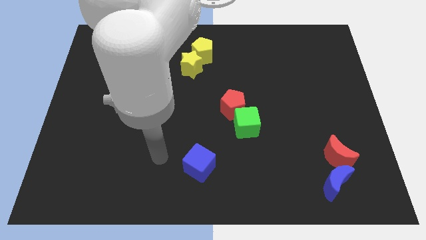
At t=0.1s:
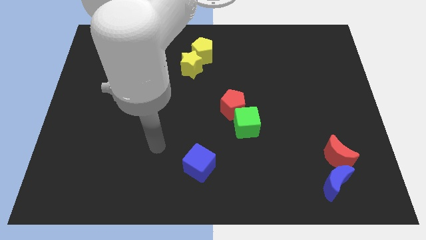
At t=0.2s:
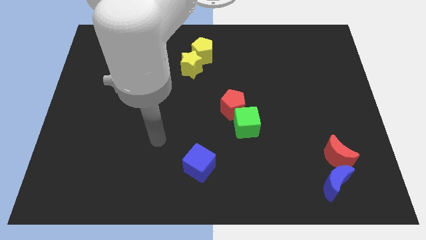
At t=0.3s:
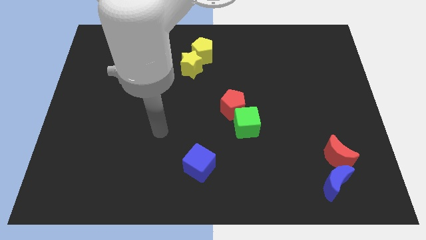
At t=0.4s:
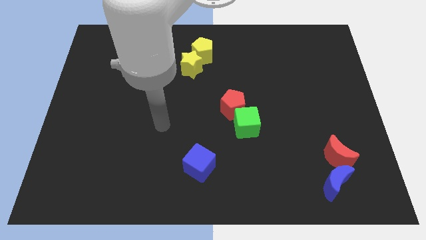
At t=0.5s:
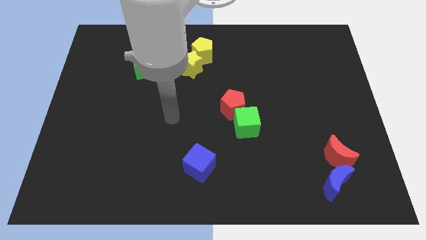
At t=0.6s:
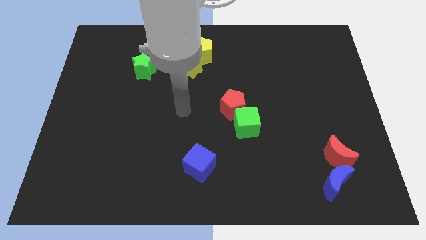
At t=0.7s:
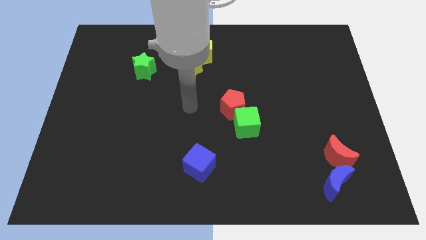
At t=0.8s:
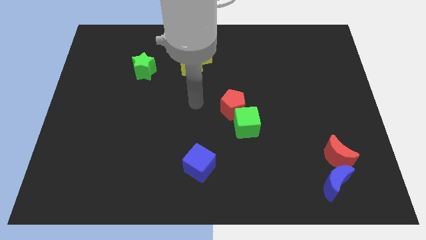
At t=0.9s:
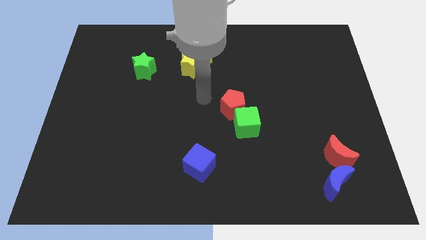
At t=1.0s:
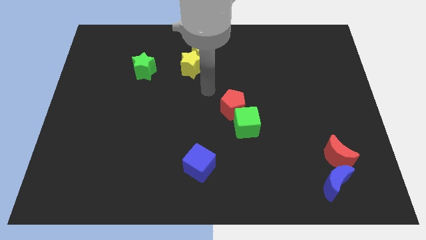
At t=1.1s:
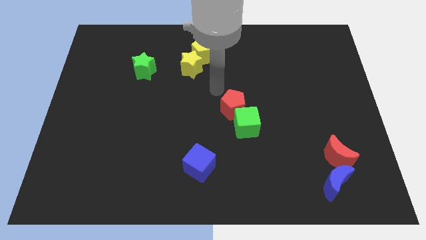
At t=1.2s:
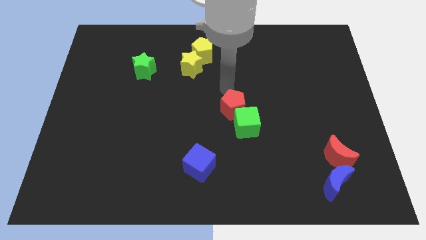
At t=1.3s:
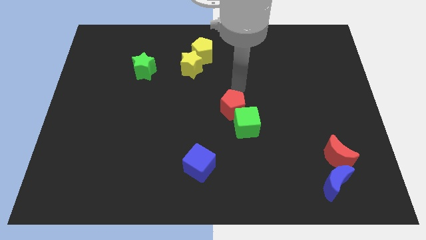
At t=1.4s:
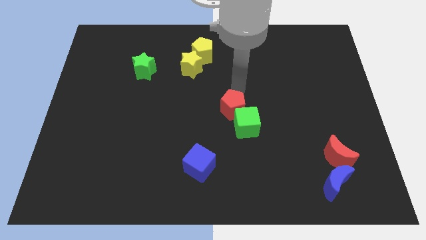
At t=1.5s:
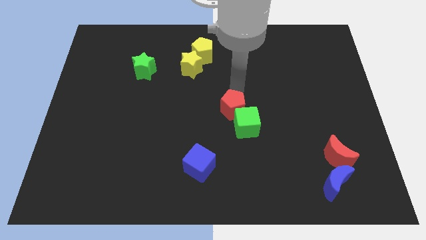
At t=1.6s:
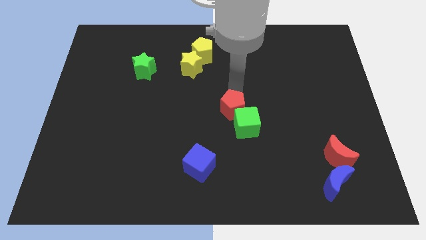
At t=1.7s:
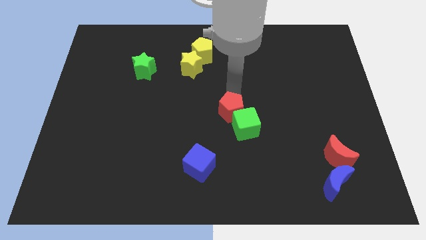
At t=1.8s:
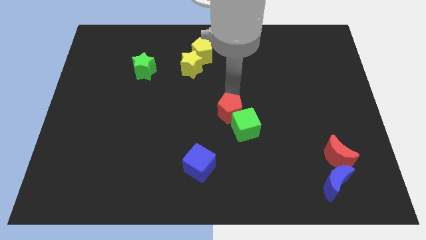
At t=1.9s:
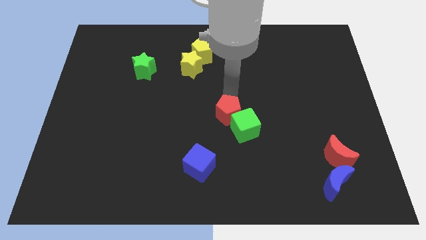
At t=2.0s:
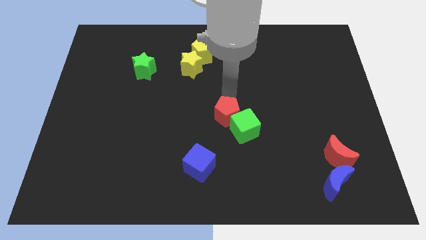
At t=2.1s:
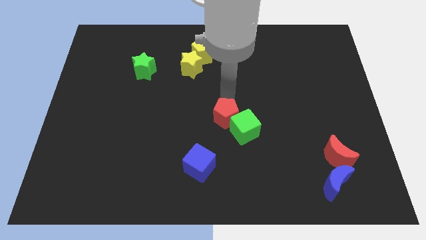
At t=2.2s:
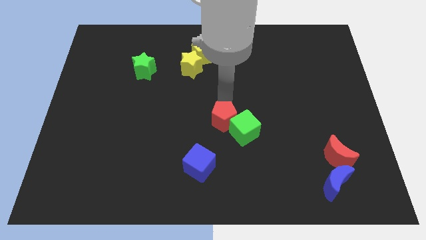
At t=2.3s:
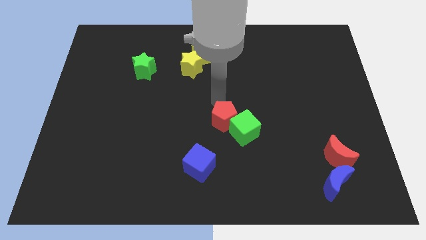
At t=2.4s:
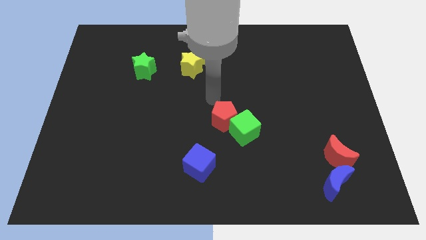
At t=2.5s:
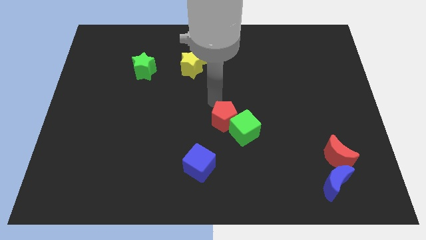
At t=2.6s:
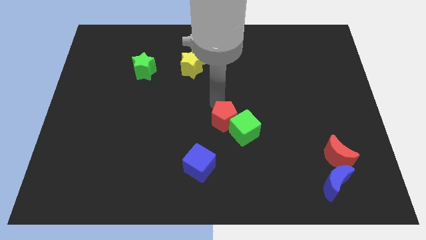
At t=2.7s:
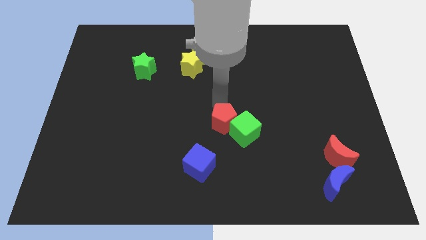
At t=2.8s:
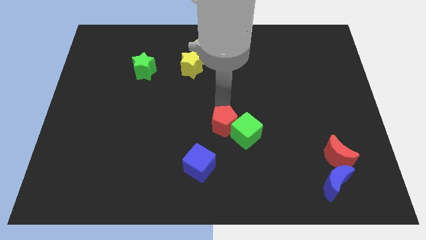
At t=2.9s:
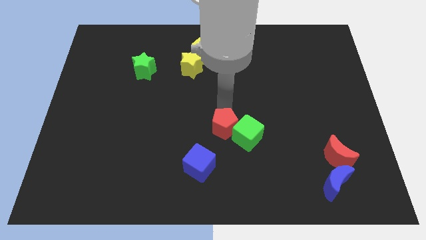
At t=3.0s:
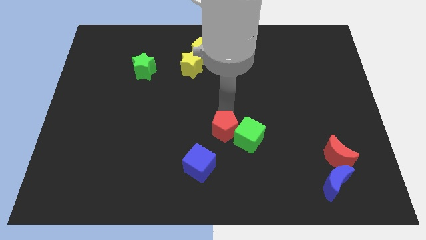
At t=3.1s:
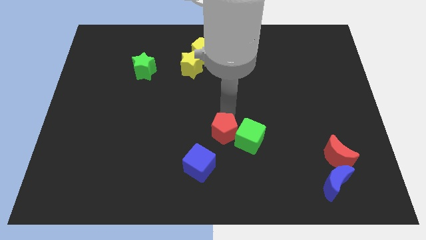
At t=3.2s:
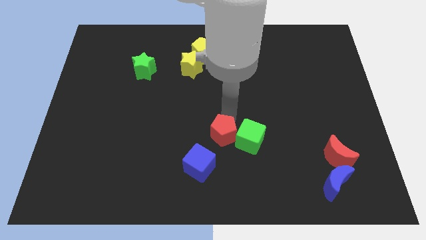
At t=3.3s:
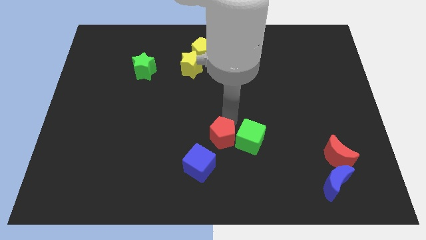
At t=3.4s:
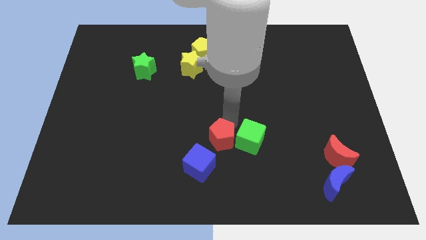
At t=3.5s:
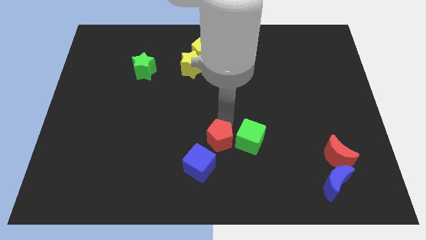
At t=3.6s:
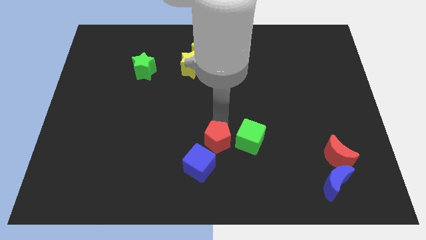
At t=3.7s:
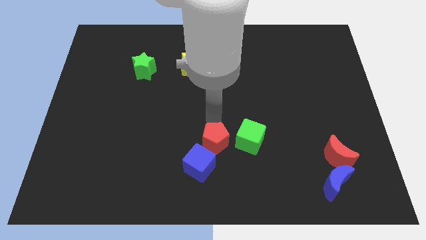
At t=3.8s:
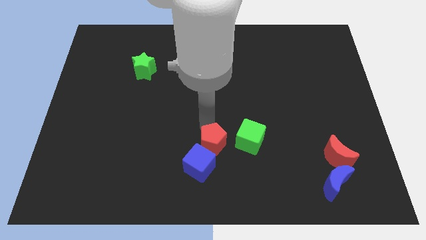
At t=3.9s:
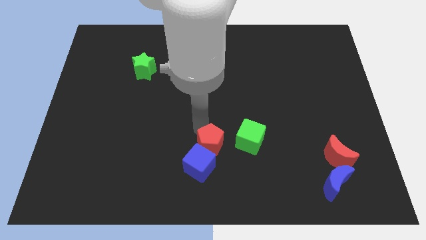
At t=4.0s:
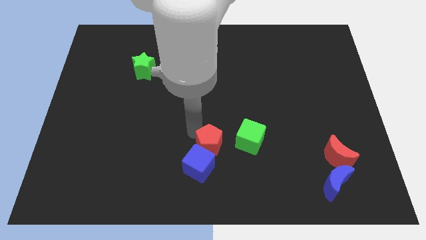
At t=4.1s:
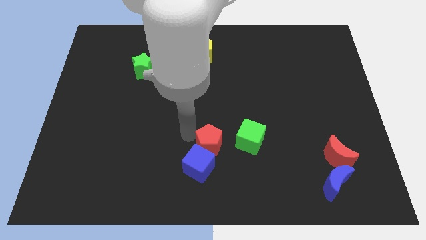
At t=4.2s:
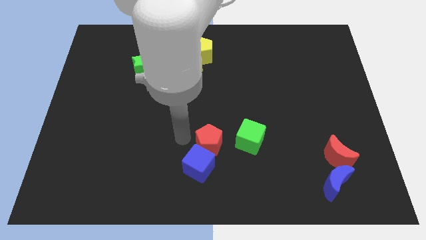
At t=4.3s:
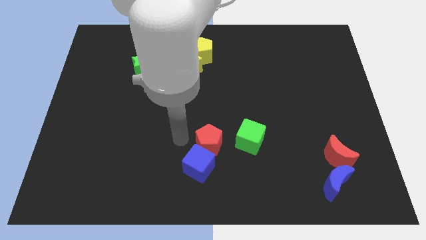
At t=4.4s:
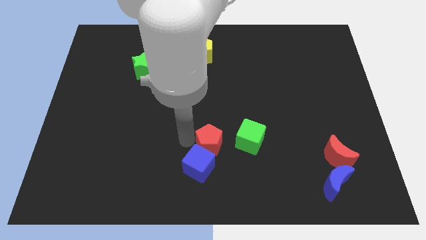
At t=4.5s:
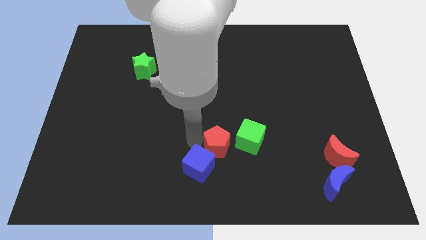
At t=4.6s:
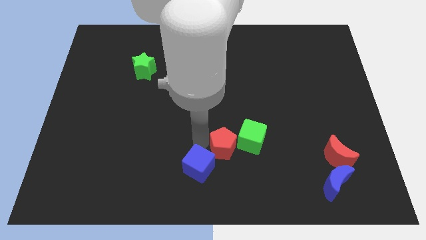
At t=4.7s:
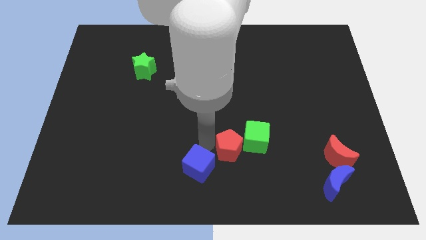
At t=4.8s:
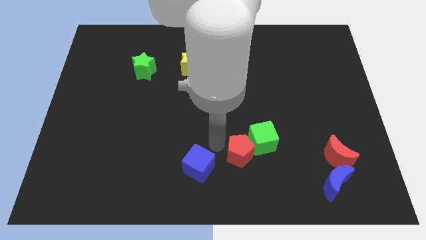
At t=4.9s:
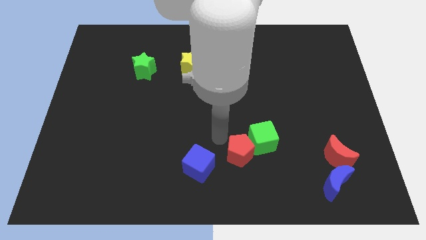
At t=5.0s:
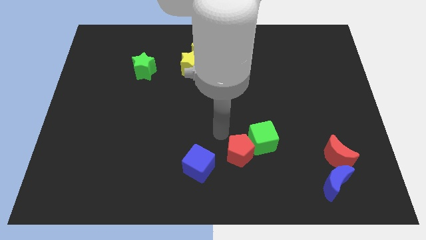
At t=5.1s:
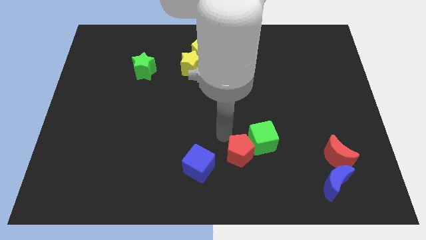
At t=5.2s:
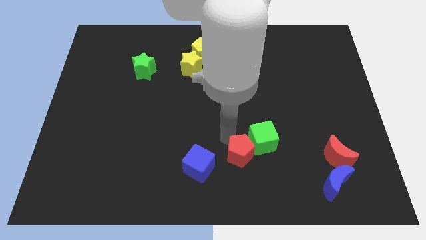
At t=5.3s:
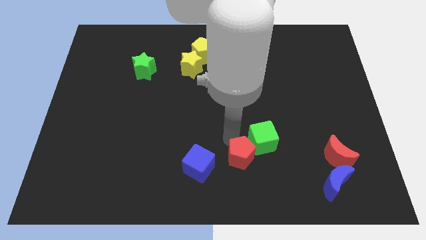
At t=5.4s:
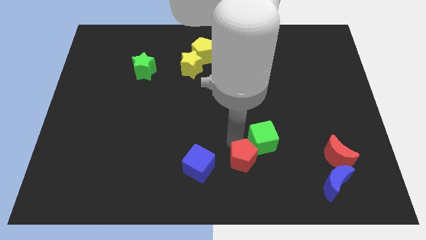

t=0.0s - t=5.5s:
put the red pentagon below the green cube

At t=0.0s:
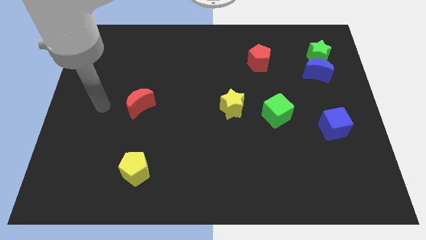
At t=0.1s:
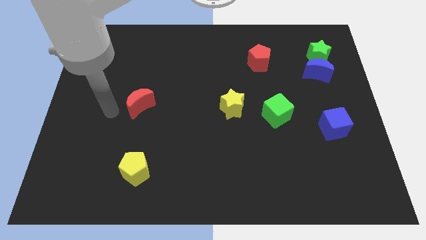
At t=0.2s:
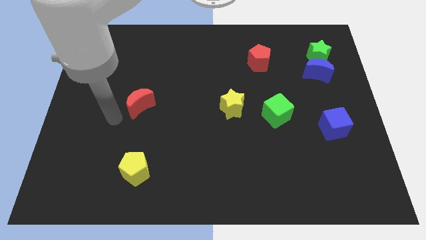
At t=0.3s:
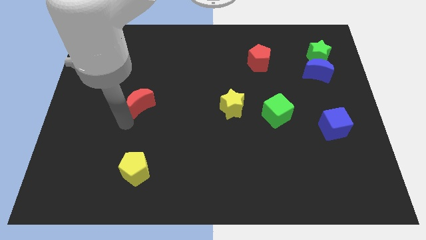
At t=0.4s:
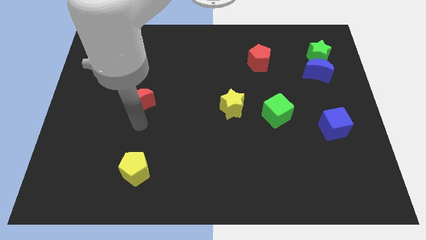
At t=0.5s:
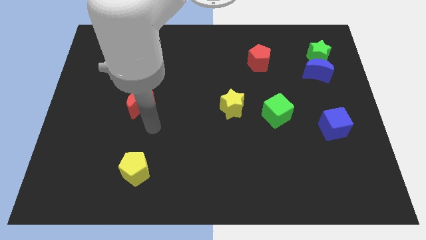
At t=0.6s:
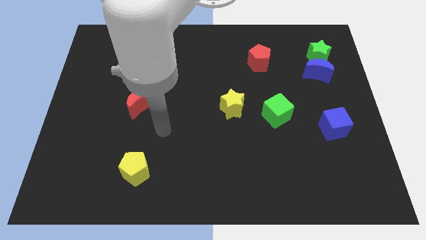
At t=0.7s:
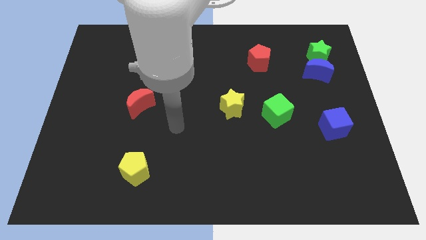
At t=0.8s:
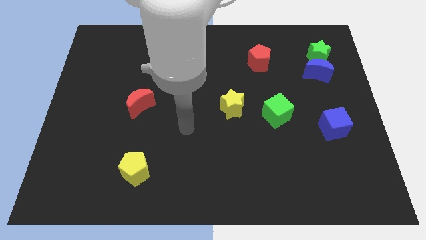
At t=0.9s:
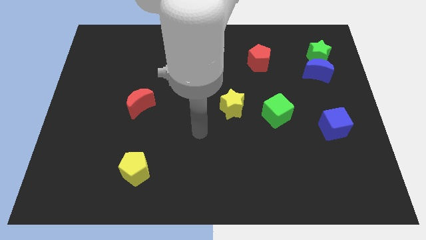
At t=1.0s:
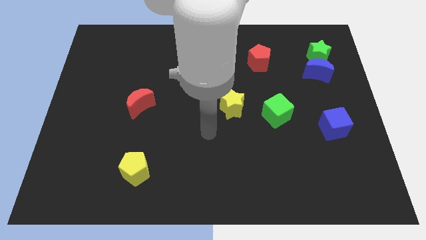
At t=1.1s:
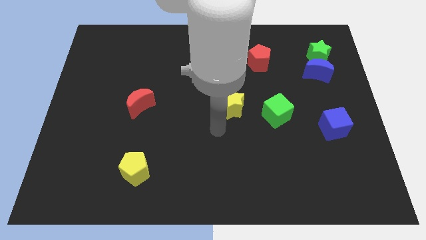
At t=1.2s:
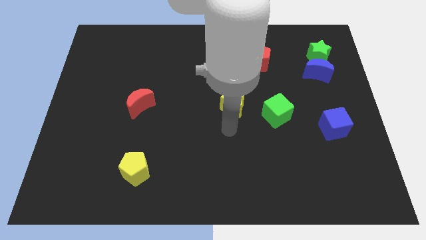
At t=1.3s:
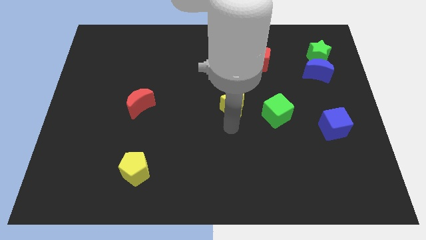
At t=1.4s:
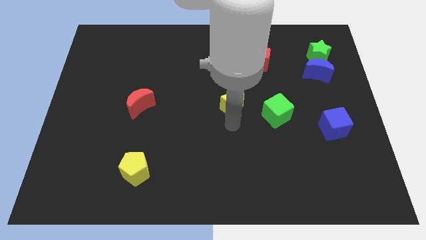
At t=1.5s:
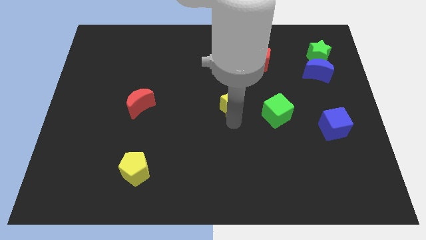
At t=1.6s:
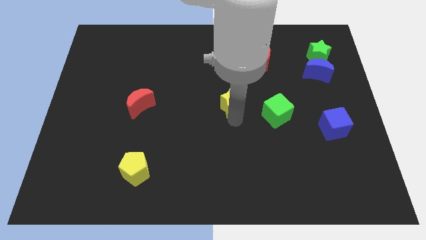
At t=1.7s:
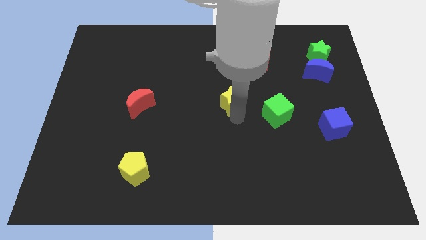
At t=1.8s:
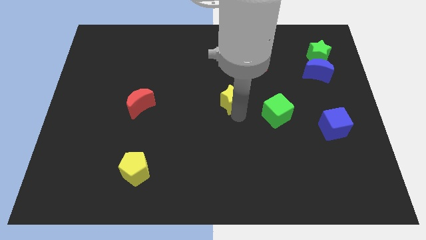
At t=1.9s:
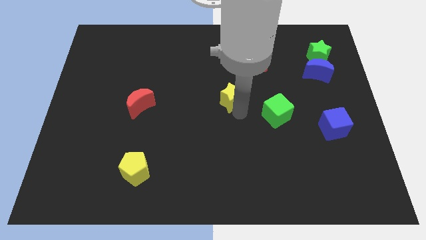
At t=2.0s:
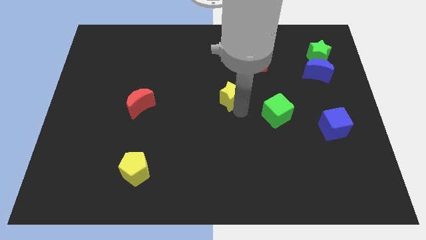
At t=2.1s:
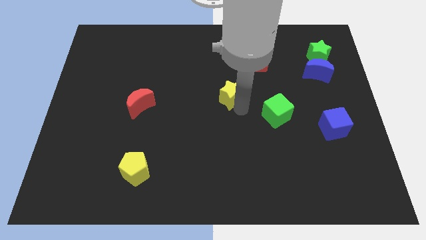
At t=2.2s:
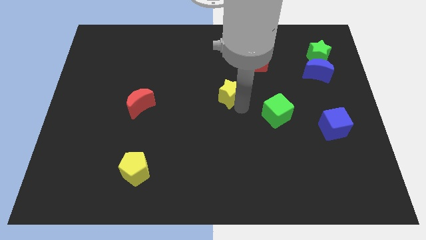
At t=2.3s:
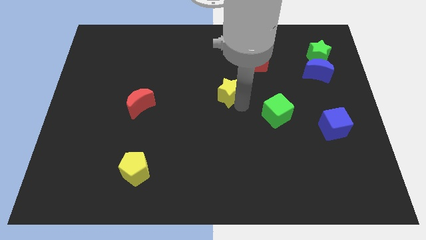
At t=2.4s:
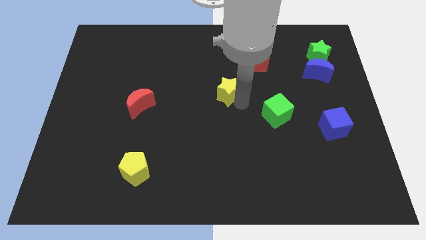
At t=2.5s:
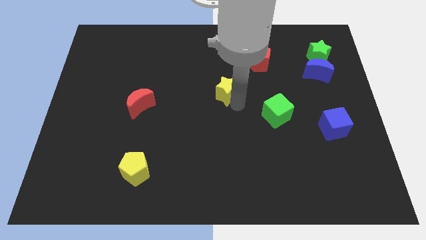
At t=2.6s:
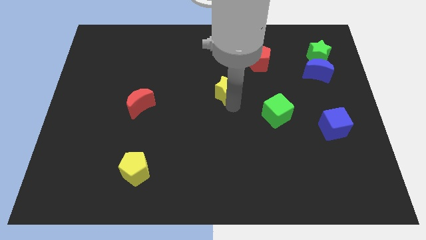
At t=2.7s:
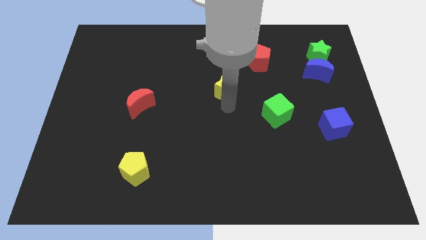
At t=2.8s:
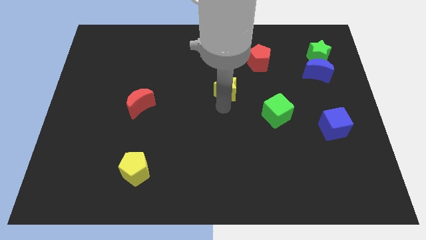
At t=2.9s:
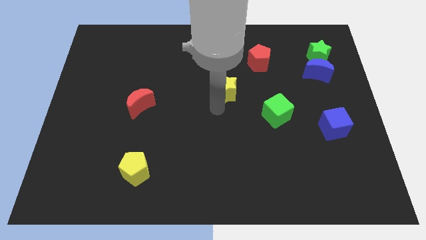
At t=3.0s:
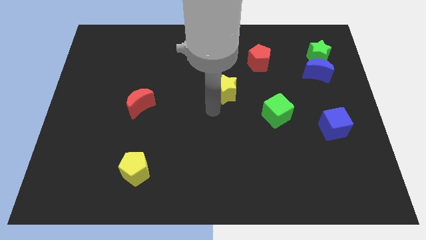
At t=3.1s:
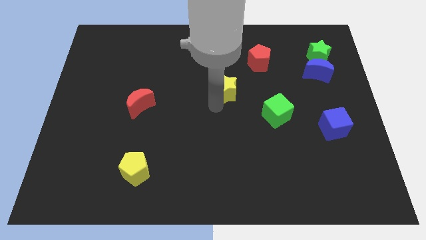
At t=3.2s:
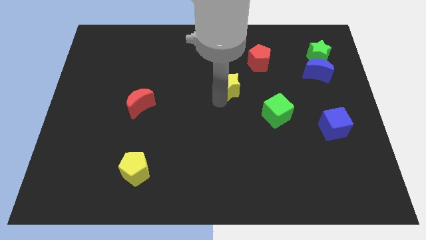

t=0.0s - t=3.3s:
slide the yellow star to the bottom left side of the red pentagon
